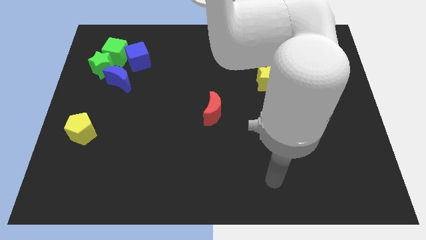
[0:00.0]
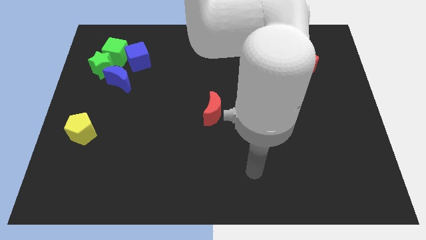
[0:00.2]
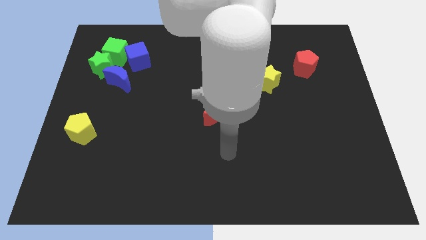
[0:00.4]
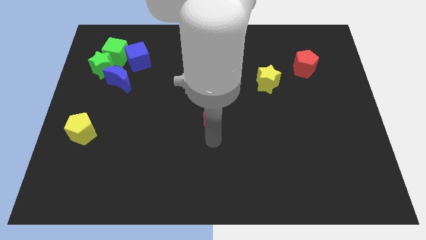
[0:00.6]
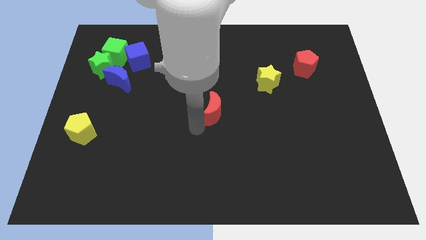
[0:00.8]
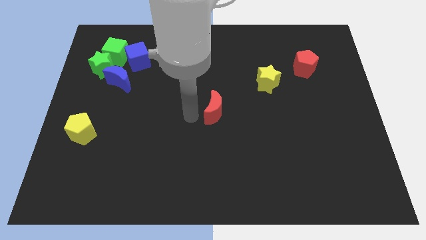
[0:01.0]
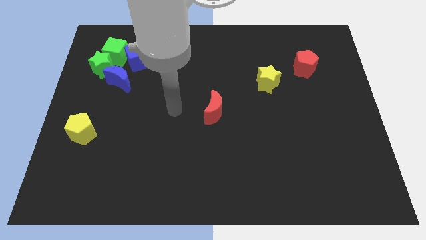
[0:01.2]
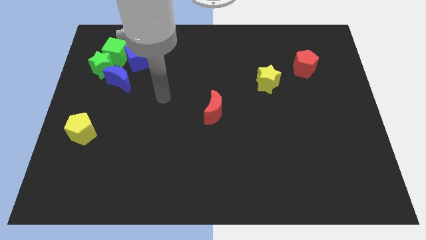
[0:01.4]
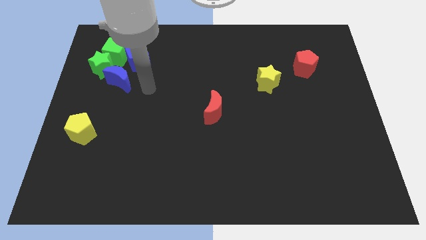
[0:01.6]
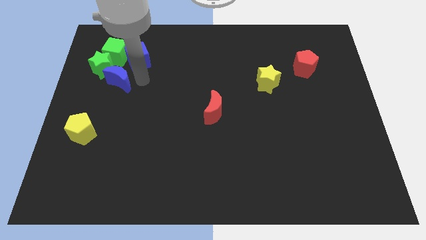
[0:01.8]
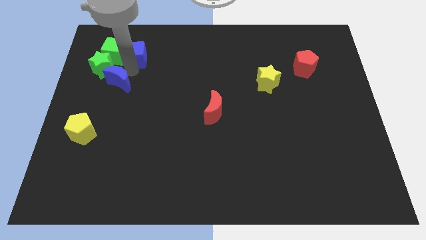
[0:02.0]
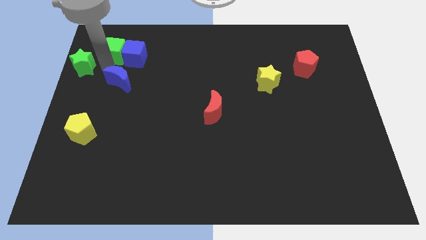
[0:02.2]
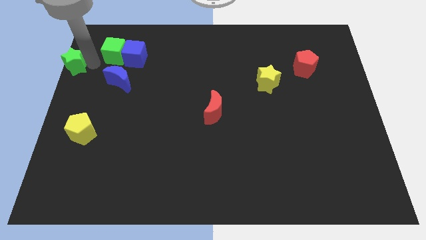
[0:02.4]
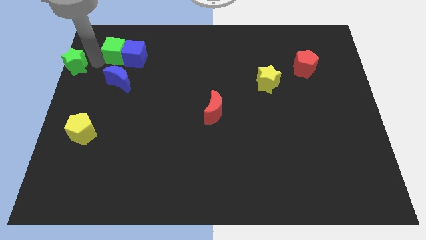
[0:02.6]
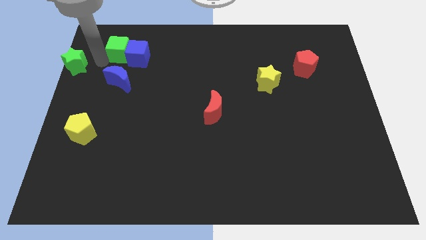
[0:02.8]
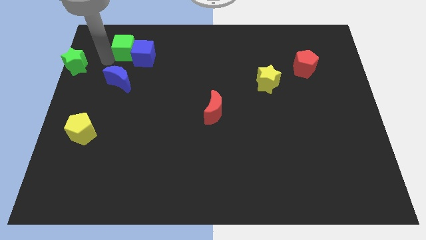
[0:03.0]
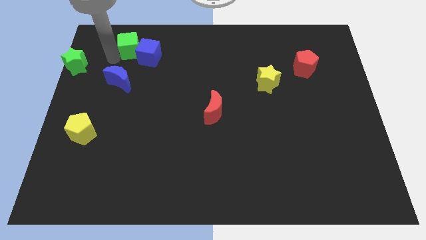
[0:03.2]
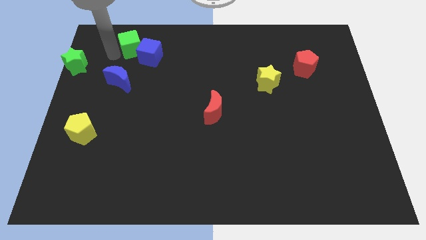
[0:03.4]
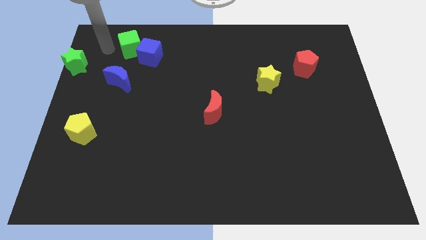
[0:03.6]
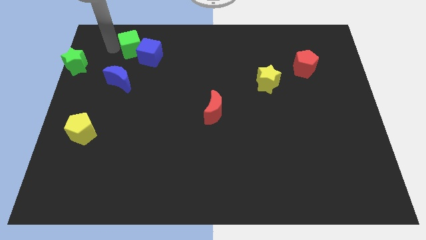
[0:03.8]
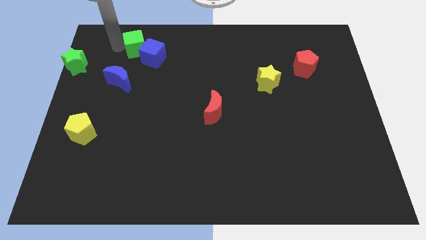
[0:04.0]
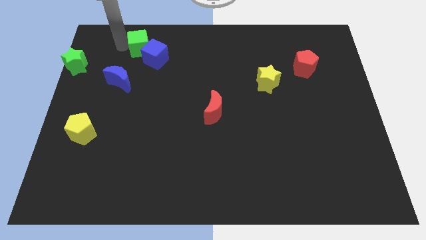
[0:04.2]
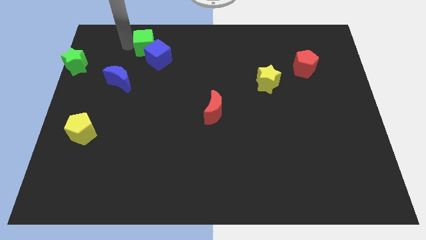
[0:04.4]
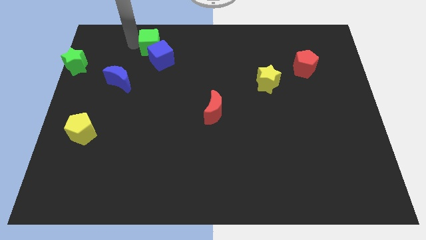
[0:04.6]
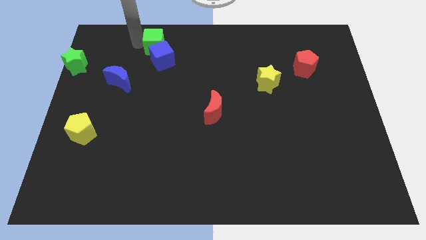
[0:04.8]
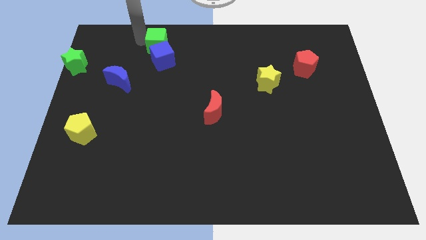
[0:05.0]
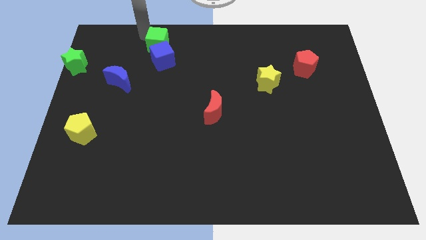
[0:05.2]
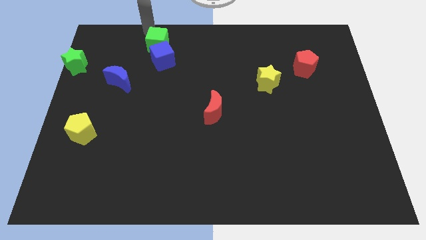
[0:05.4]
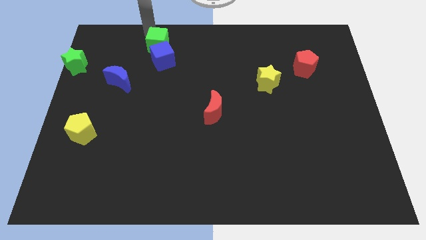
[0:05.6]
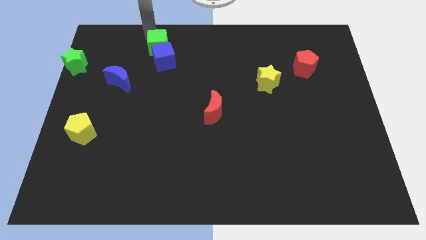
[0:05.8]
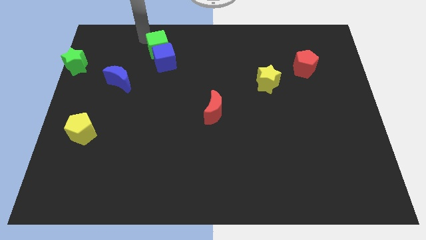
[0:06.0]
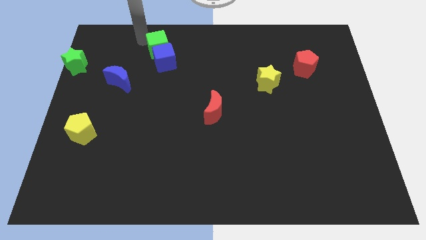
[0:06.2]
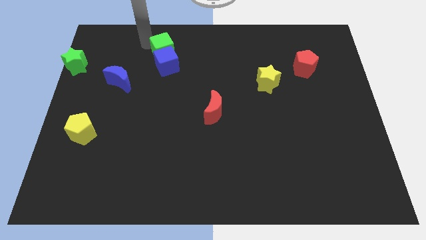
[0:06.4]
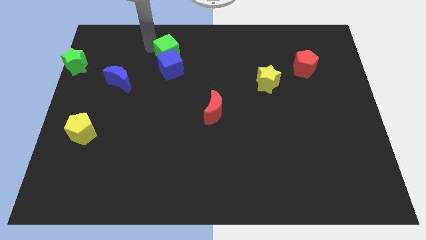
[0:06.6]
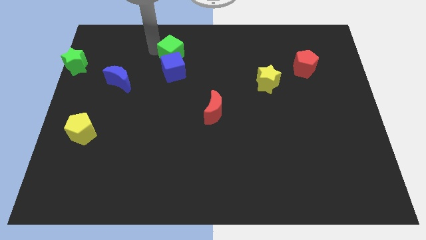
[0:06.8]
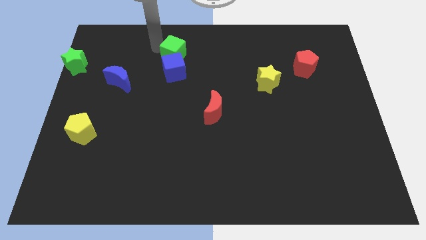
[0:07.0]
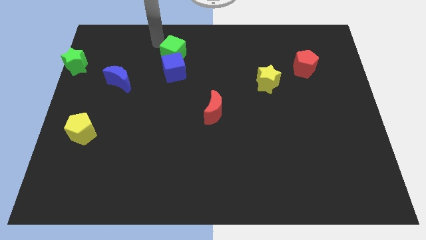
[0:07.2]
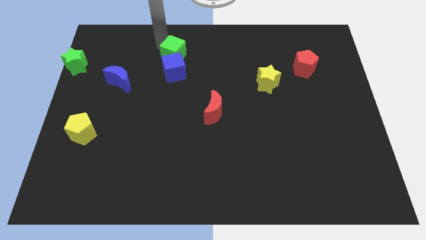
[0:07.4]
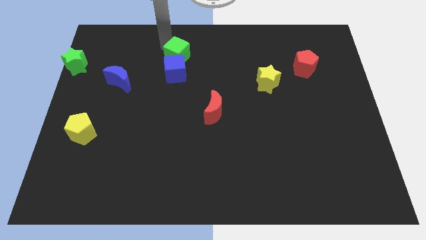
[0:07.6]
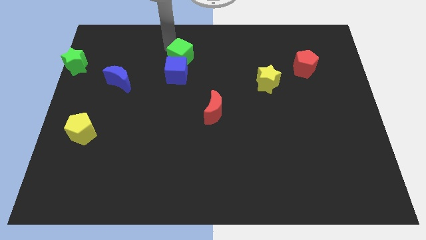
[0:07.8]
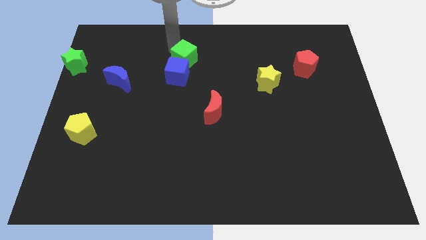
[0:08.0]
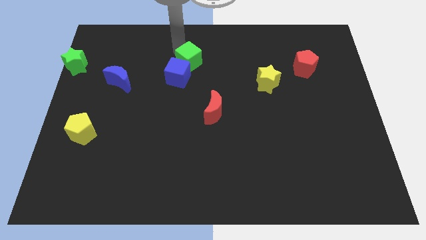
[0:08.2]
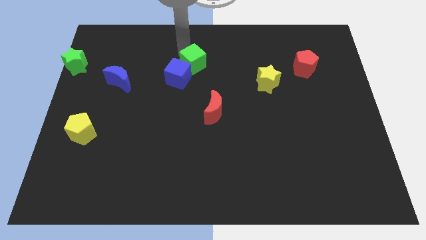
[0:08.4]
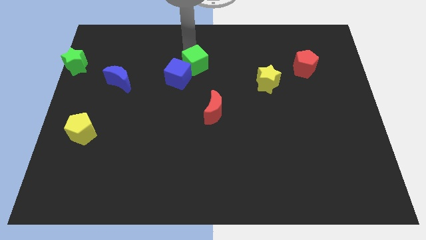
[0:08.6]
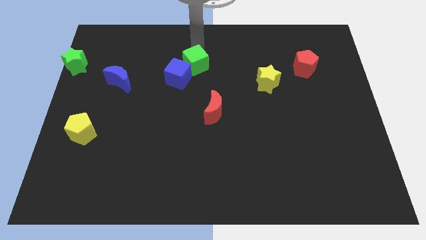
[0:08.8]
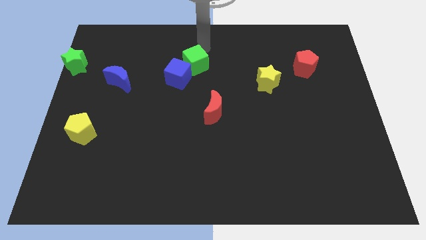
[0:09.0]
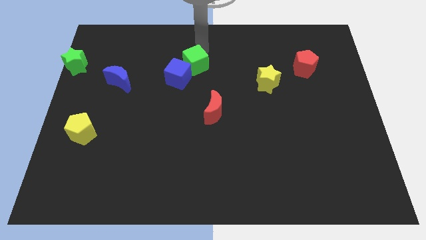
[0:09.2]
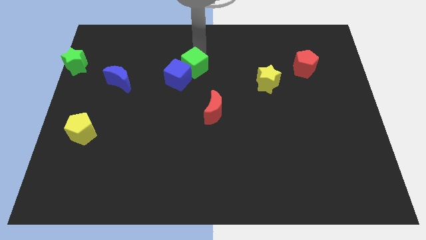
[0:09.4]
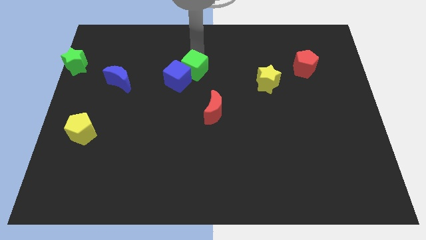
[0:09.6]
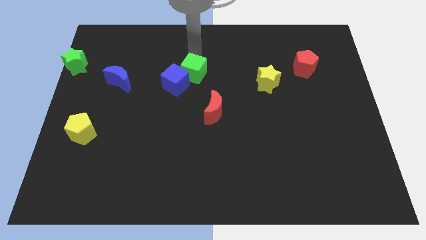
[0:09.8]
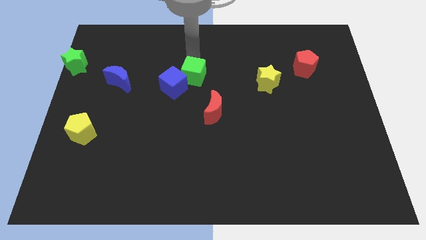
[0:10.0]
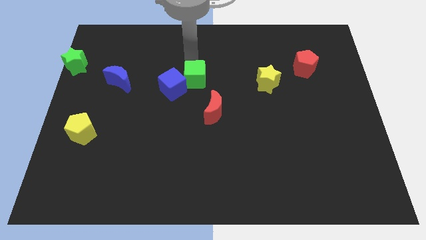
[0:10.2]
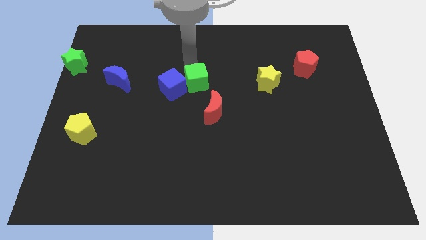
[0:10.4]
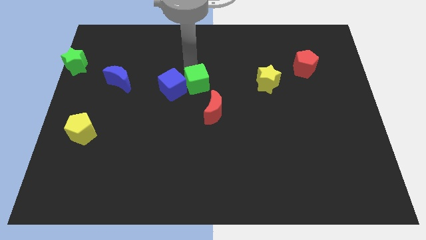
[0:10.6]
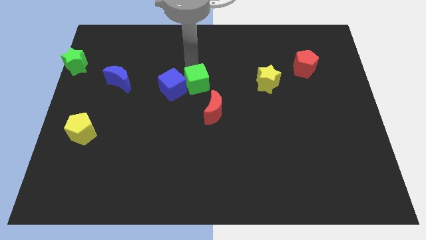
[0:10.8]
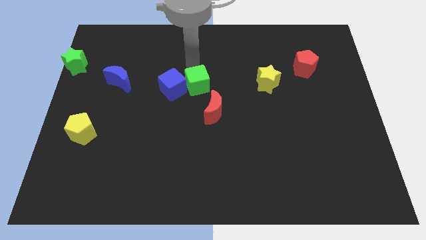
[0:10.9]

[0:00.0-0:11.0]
slide the green cube downwards and right

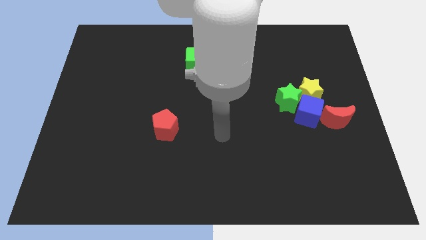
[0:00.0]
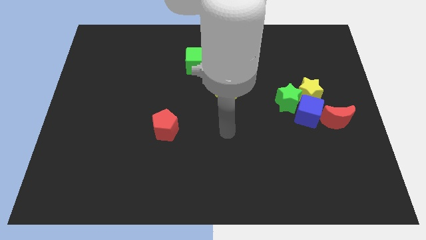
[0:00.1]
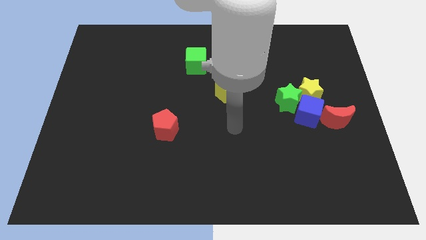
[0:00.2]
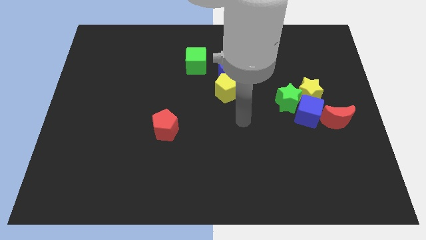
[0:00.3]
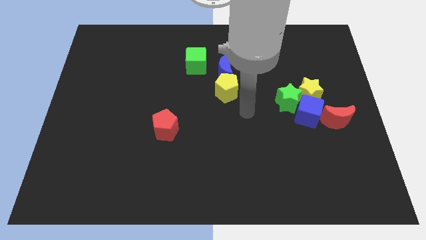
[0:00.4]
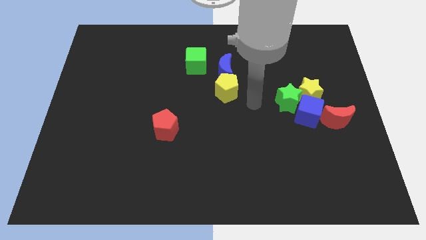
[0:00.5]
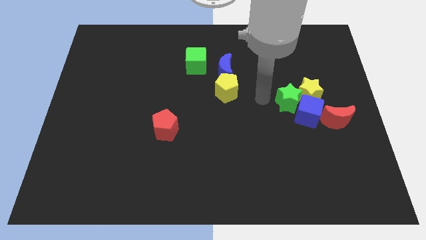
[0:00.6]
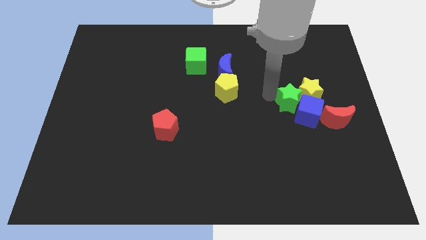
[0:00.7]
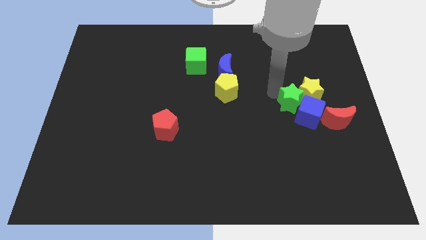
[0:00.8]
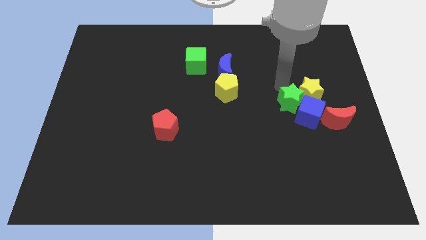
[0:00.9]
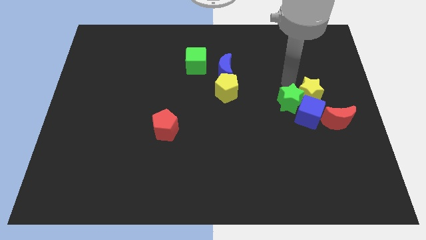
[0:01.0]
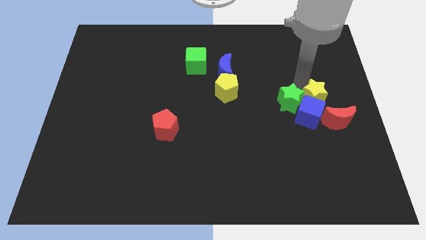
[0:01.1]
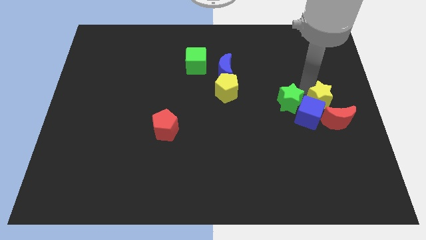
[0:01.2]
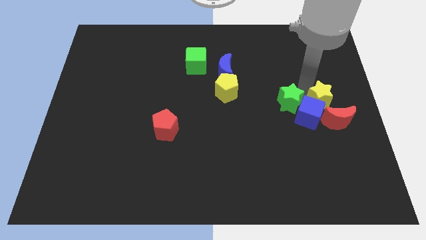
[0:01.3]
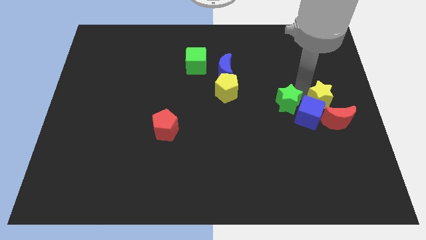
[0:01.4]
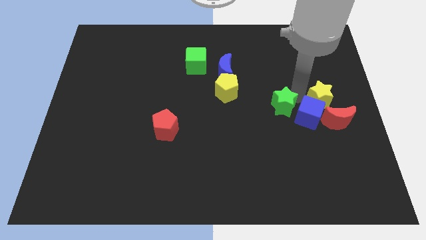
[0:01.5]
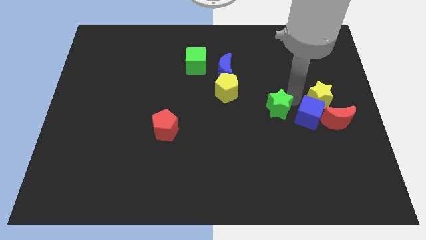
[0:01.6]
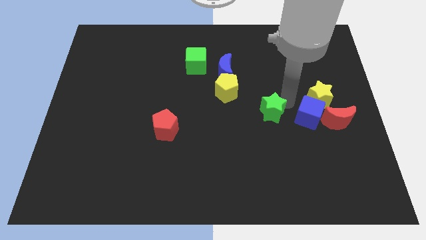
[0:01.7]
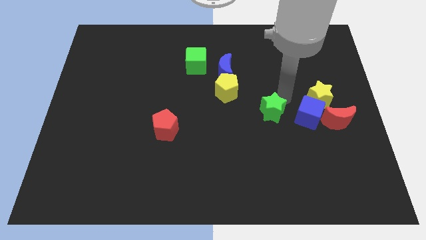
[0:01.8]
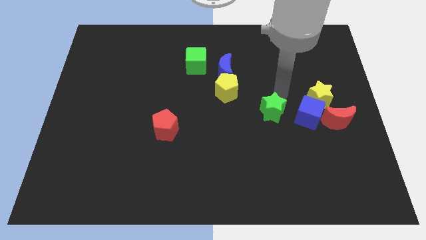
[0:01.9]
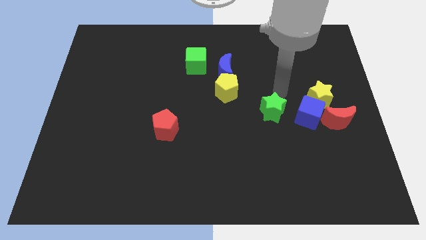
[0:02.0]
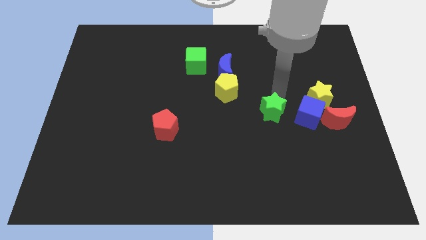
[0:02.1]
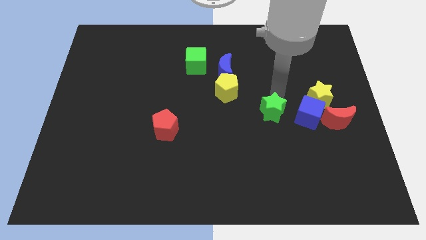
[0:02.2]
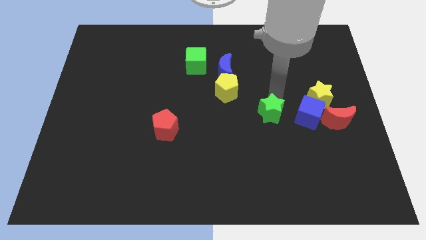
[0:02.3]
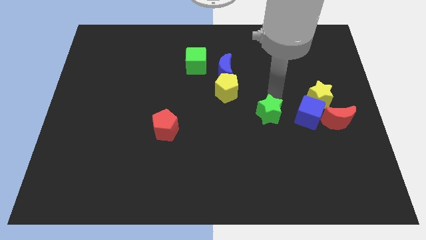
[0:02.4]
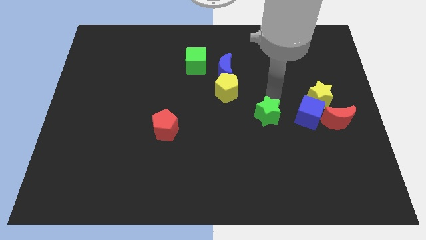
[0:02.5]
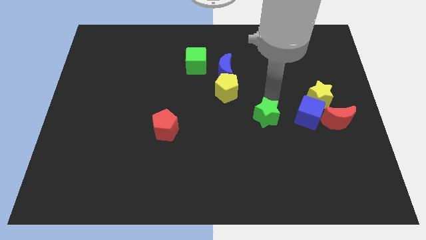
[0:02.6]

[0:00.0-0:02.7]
slightly move the green star down and left diagonally
